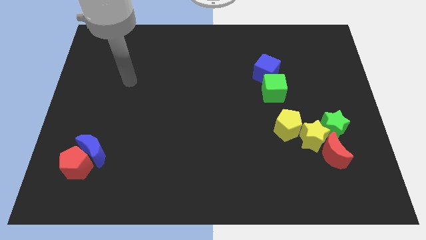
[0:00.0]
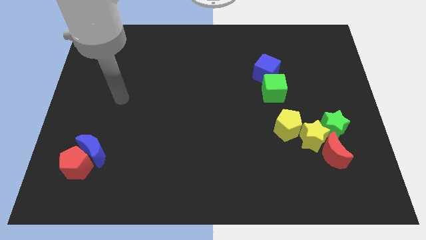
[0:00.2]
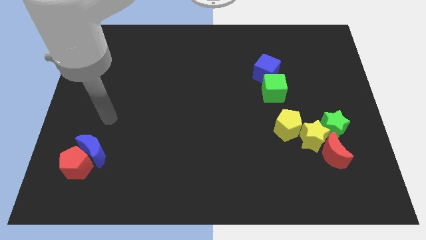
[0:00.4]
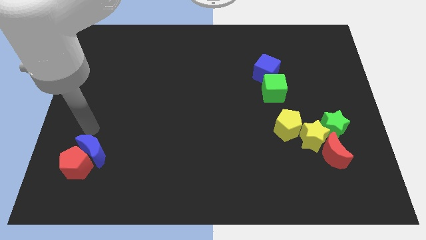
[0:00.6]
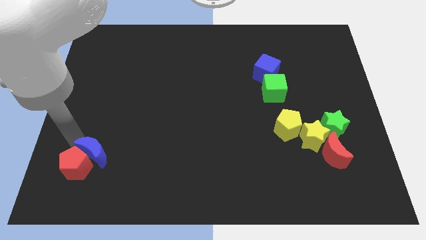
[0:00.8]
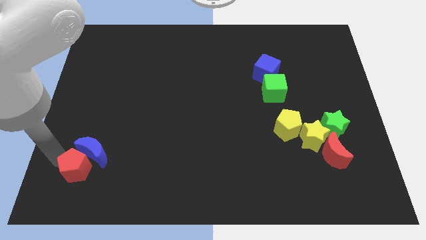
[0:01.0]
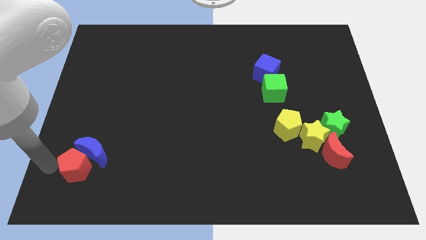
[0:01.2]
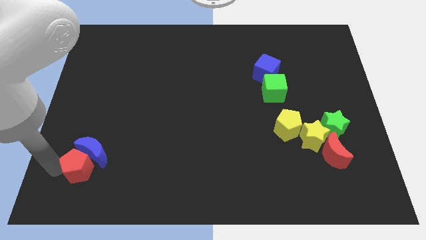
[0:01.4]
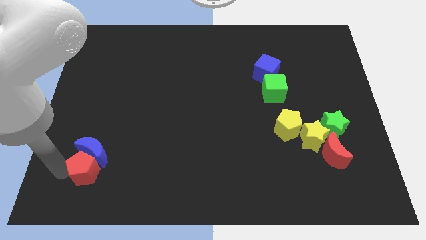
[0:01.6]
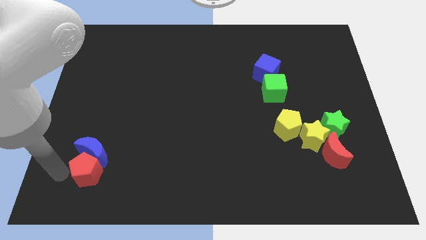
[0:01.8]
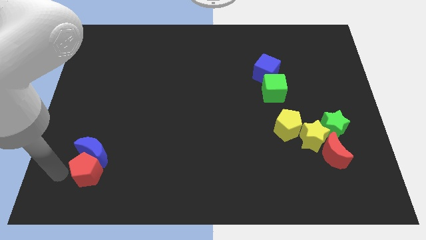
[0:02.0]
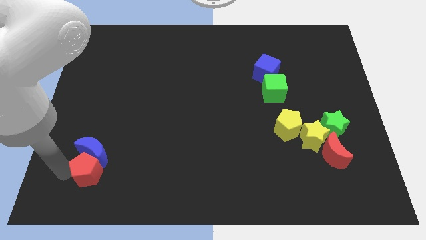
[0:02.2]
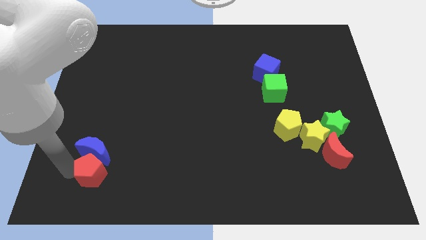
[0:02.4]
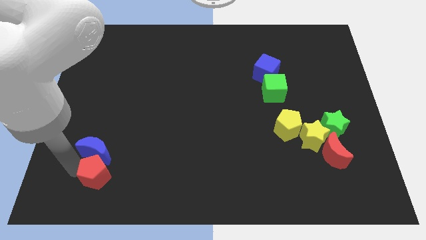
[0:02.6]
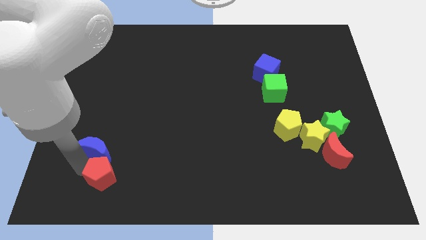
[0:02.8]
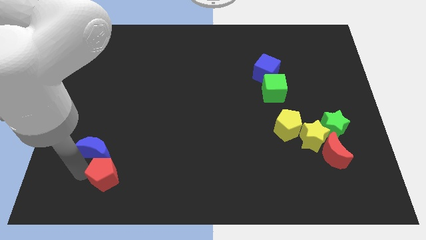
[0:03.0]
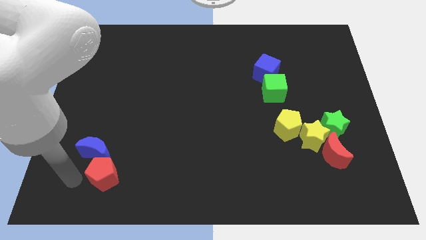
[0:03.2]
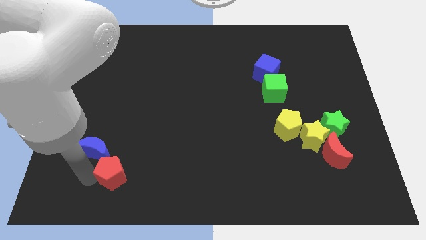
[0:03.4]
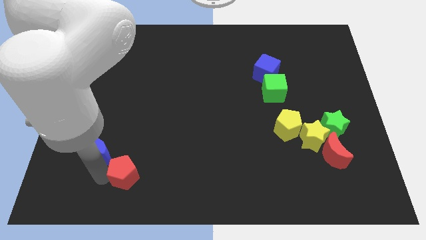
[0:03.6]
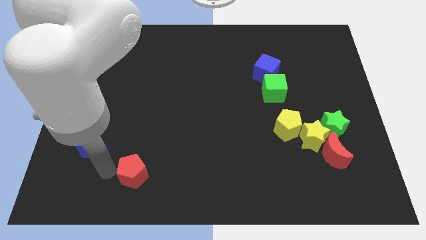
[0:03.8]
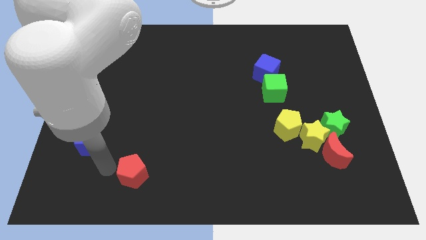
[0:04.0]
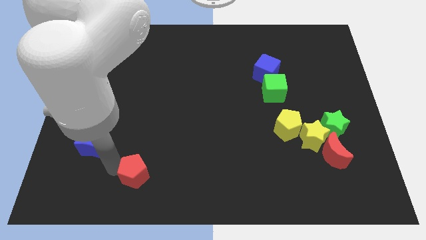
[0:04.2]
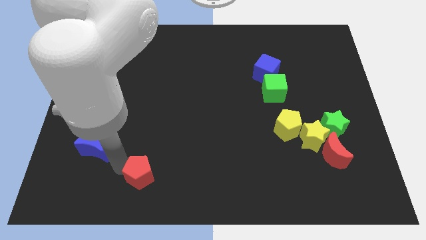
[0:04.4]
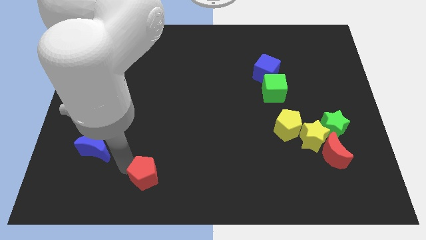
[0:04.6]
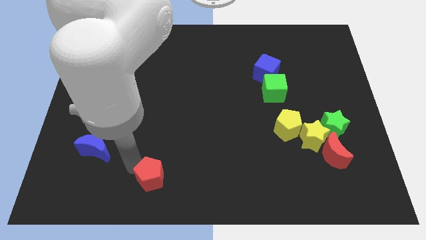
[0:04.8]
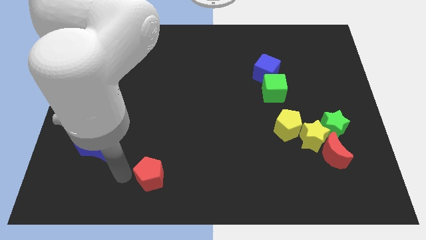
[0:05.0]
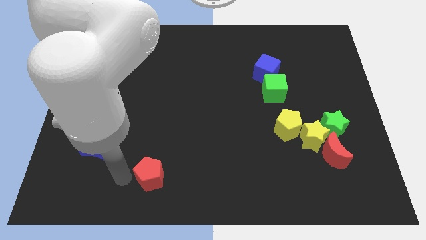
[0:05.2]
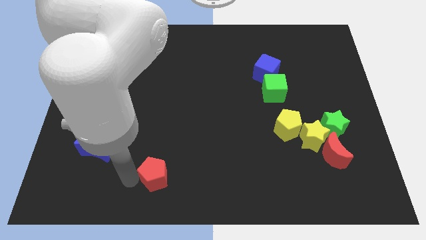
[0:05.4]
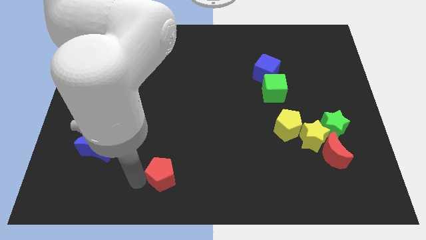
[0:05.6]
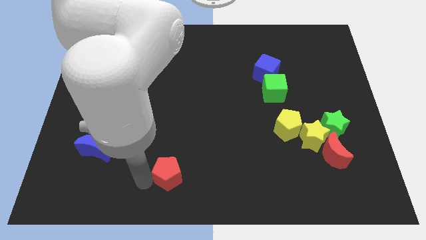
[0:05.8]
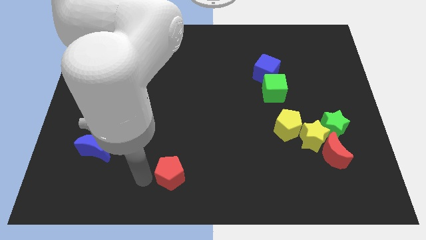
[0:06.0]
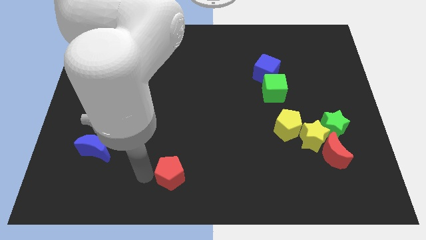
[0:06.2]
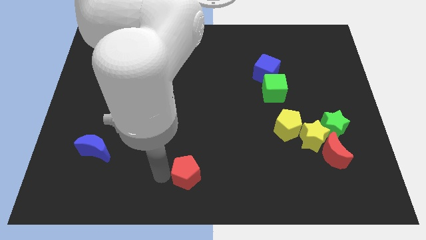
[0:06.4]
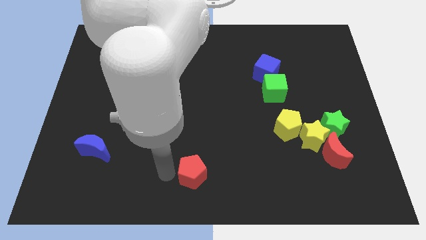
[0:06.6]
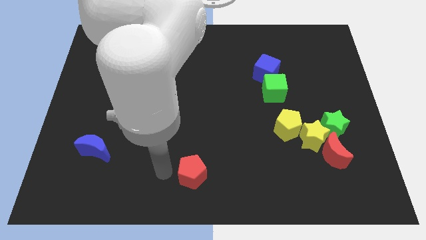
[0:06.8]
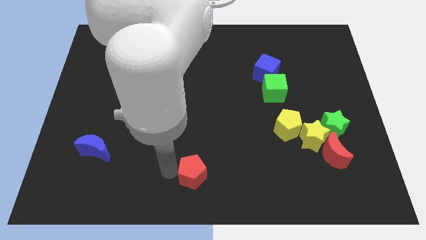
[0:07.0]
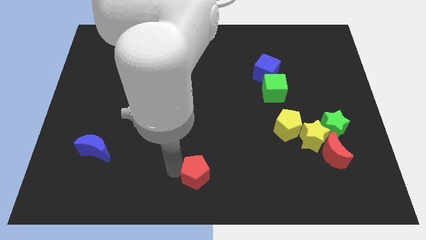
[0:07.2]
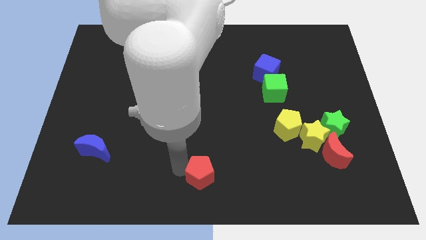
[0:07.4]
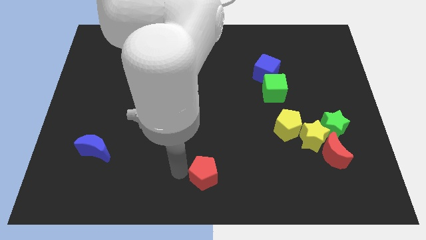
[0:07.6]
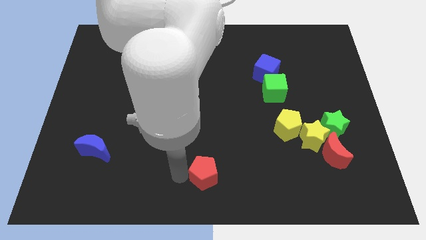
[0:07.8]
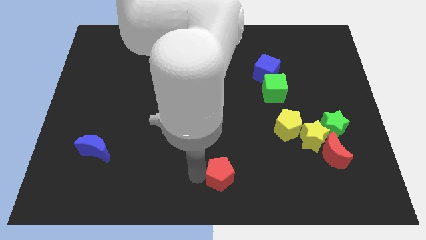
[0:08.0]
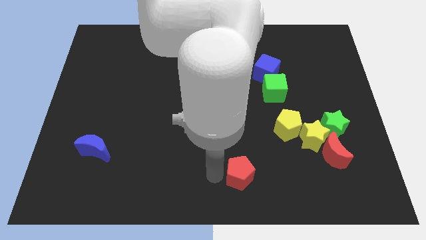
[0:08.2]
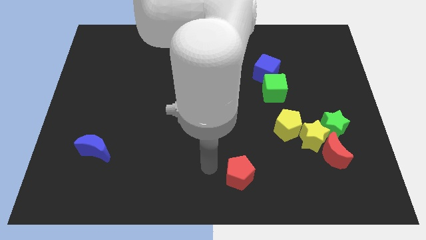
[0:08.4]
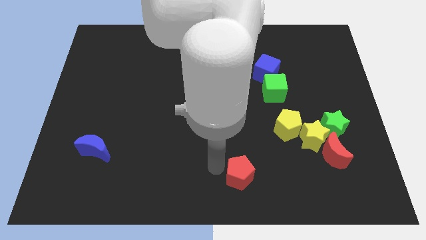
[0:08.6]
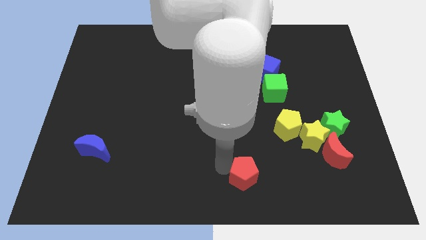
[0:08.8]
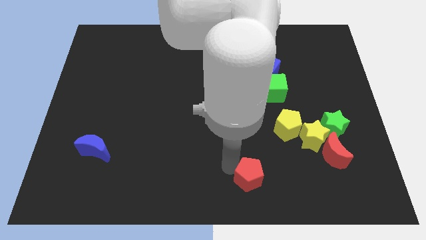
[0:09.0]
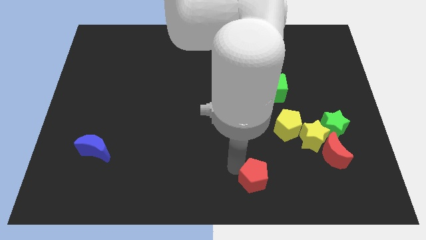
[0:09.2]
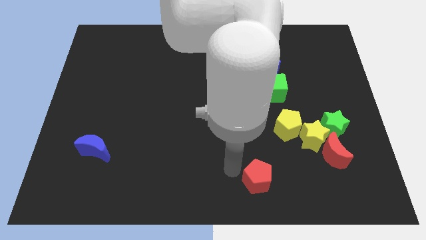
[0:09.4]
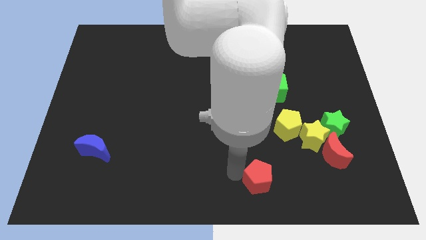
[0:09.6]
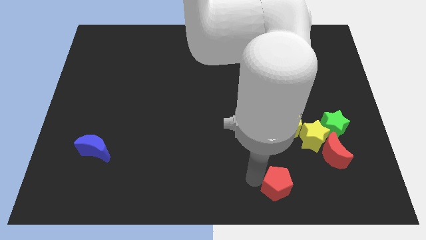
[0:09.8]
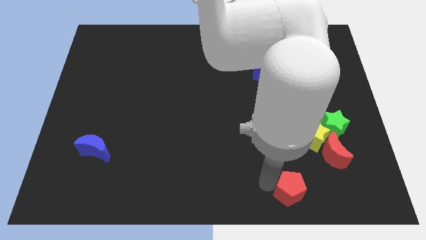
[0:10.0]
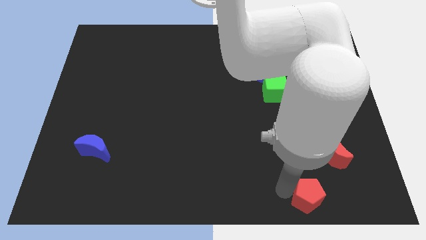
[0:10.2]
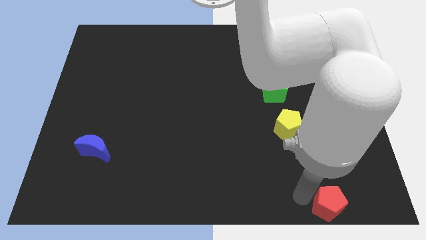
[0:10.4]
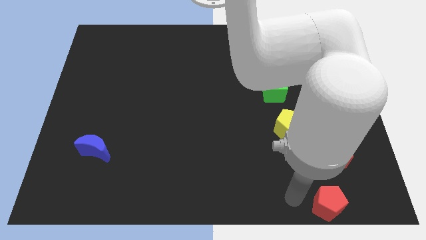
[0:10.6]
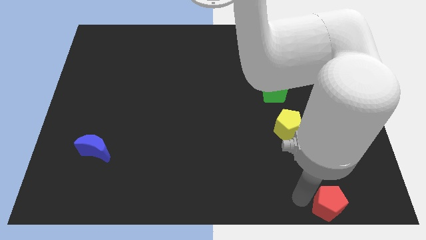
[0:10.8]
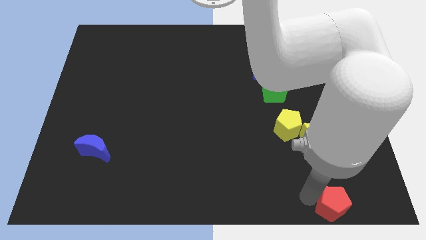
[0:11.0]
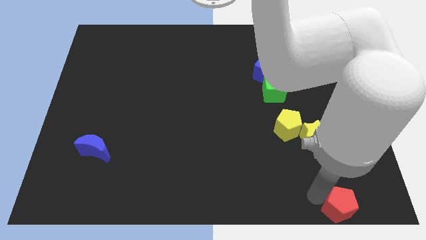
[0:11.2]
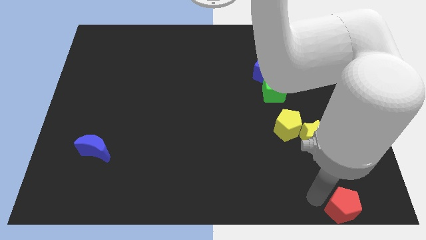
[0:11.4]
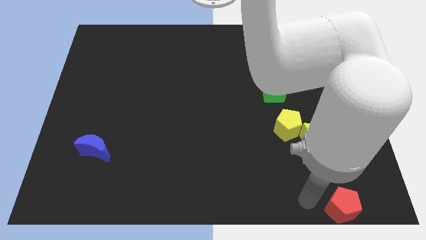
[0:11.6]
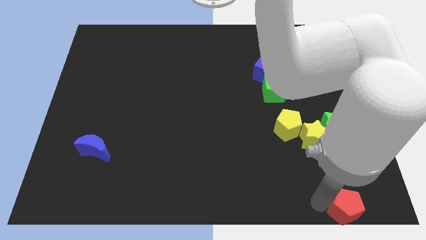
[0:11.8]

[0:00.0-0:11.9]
slide the red pentagon to the bottom right corner
